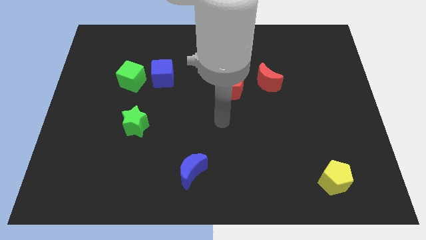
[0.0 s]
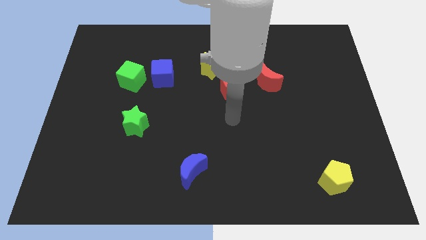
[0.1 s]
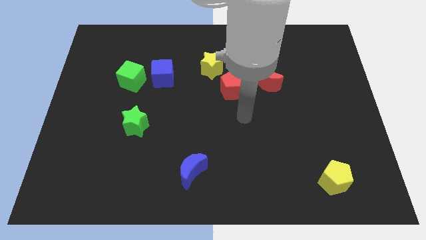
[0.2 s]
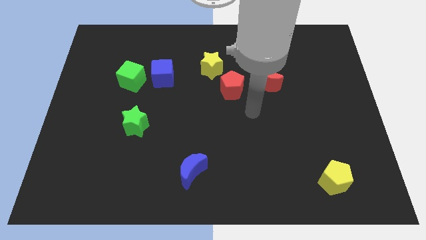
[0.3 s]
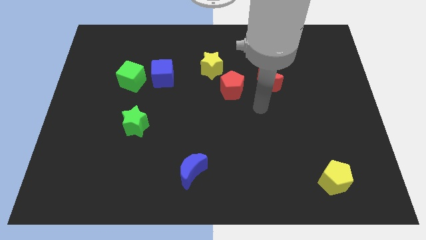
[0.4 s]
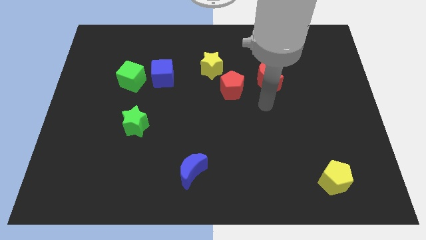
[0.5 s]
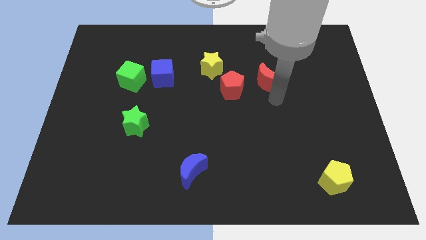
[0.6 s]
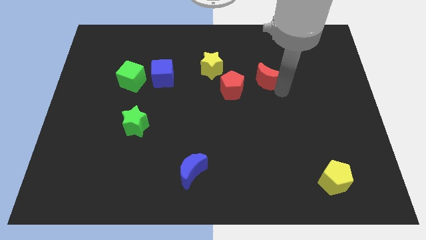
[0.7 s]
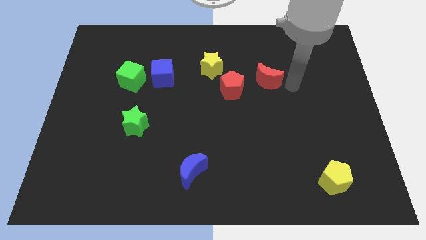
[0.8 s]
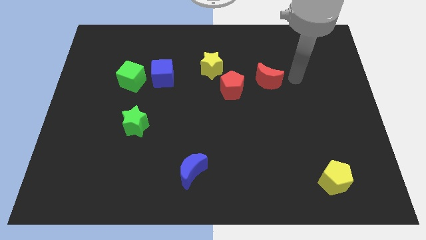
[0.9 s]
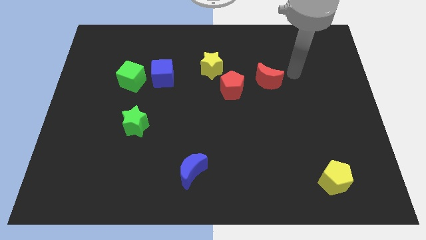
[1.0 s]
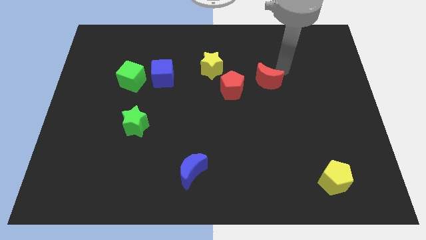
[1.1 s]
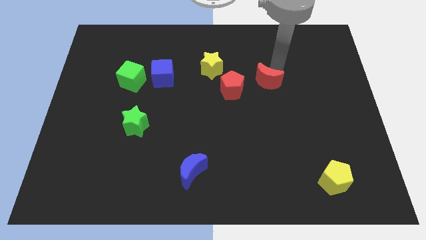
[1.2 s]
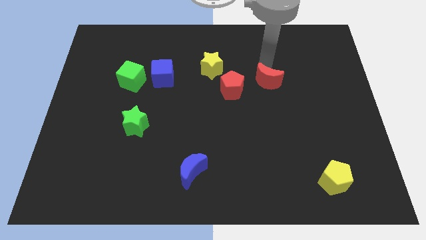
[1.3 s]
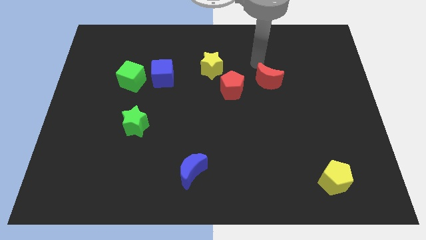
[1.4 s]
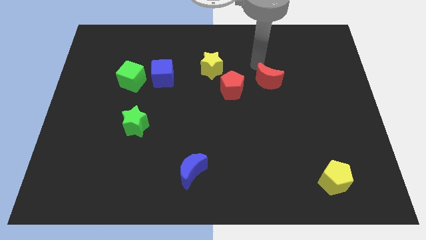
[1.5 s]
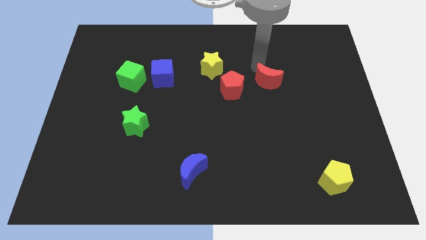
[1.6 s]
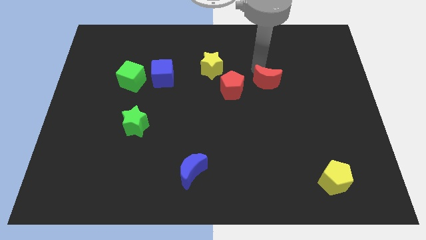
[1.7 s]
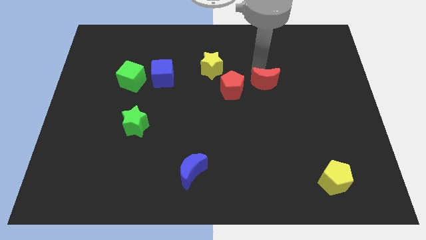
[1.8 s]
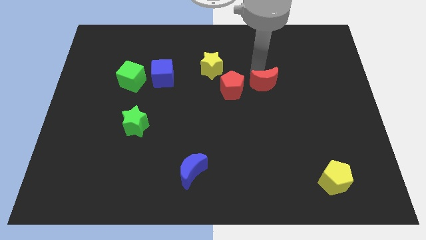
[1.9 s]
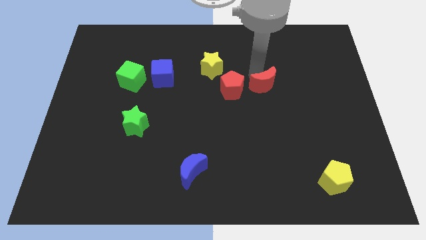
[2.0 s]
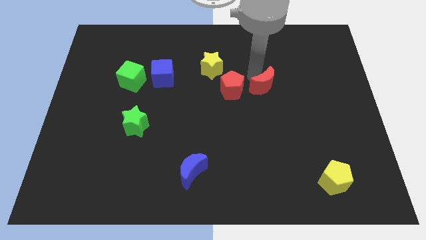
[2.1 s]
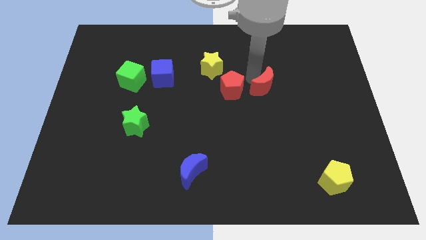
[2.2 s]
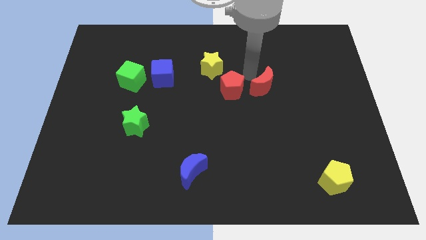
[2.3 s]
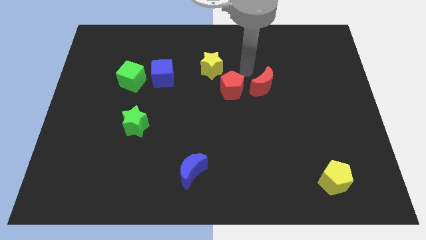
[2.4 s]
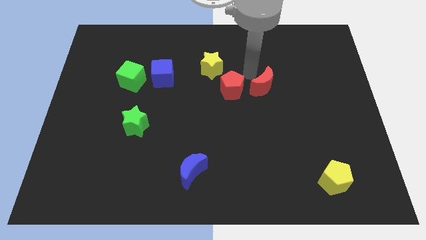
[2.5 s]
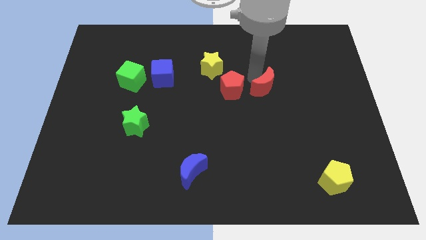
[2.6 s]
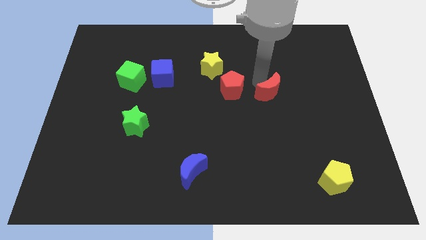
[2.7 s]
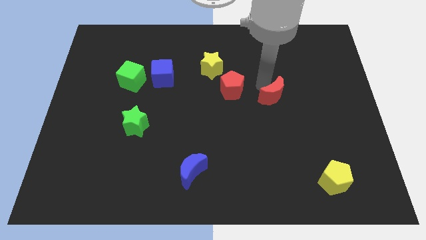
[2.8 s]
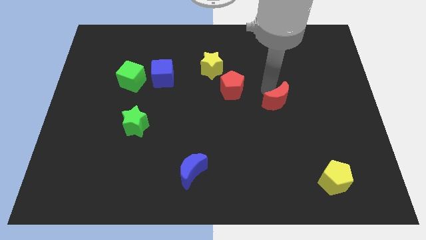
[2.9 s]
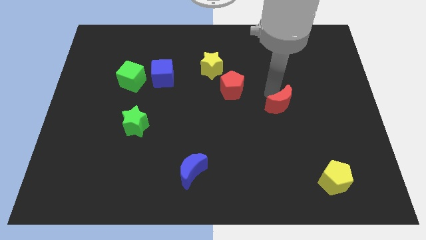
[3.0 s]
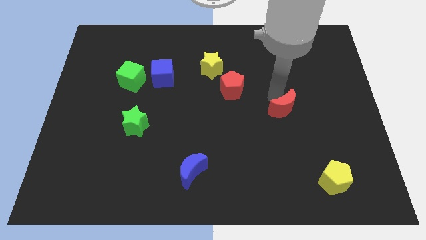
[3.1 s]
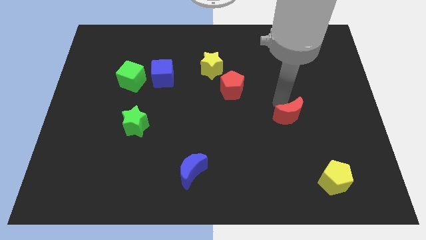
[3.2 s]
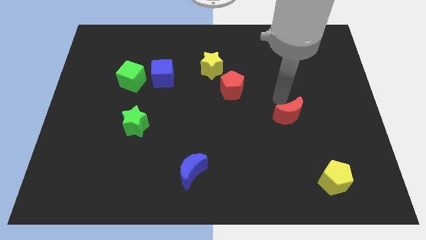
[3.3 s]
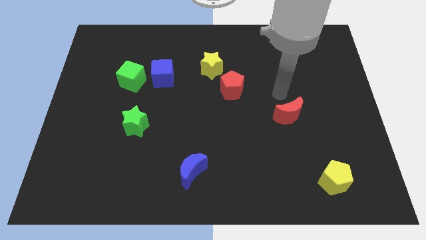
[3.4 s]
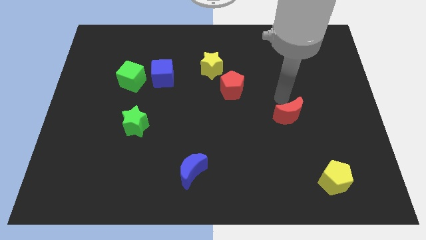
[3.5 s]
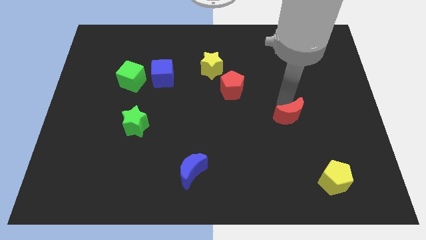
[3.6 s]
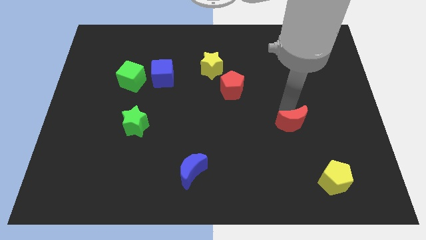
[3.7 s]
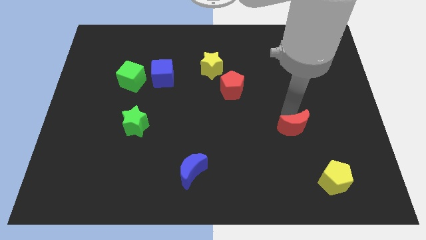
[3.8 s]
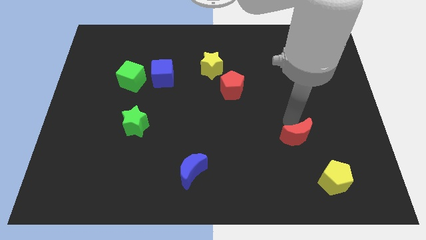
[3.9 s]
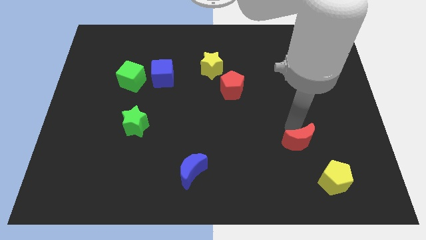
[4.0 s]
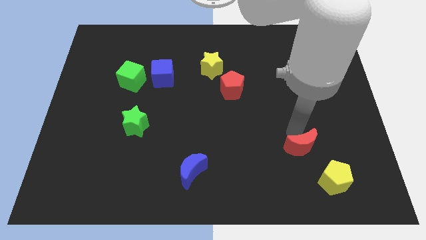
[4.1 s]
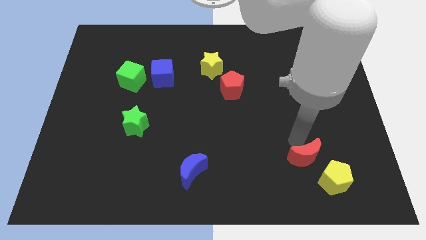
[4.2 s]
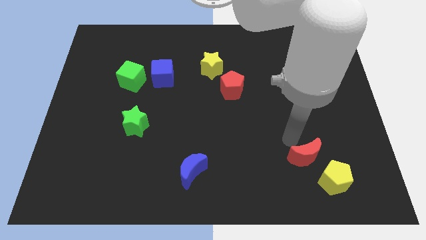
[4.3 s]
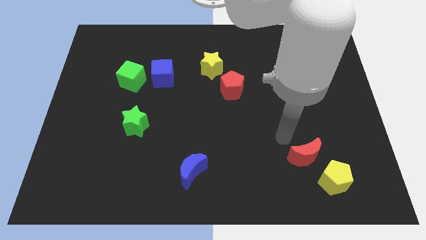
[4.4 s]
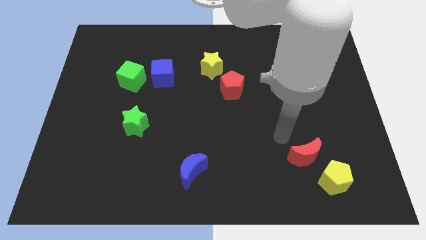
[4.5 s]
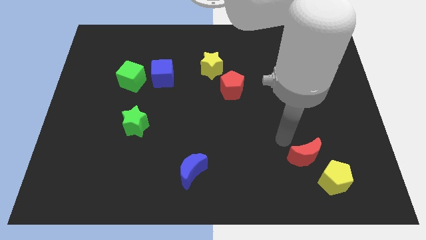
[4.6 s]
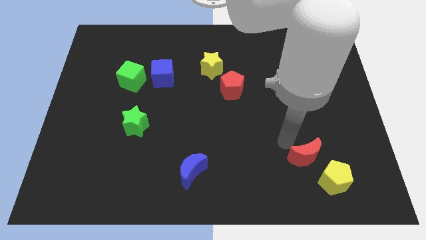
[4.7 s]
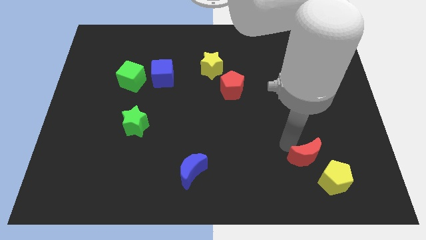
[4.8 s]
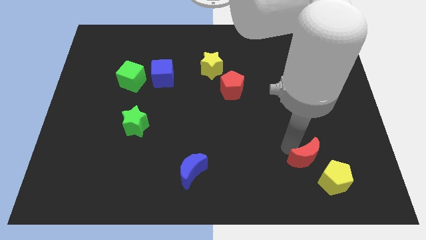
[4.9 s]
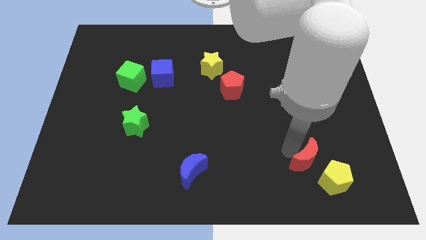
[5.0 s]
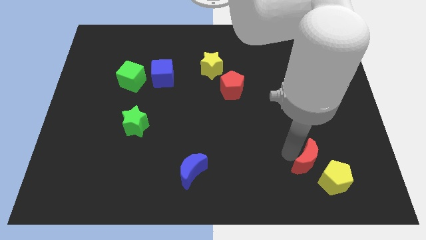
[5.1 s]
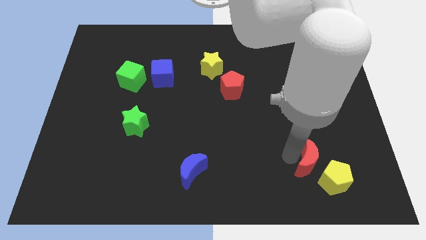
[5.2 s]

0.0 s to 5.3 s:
push the red moon towards the yellow pentagon

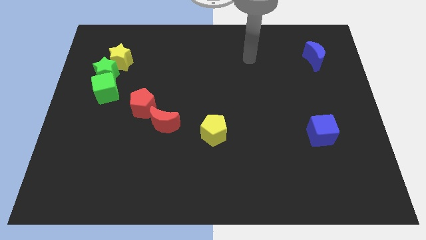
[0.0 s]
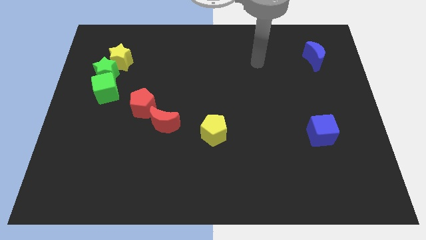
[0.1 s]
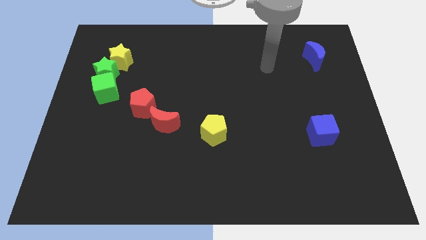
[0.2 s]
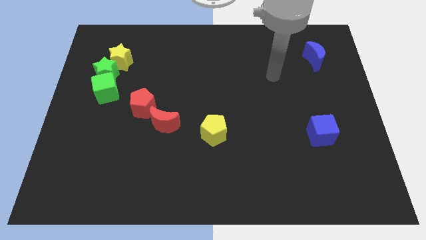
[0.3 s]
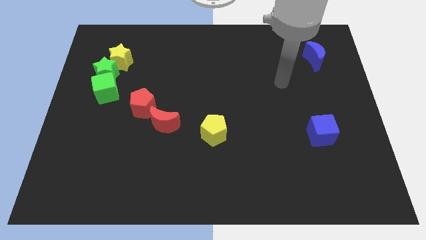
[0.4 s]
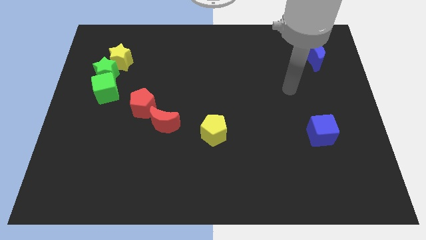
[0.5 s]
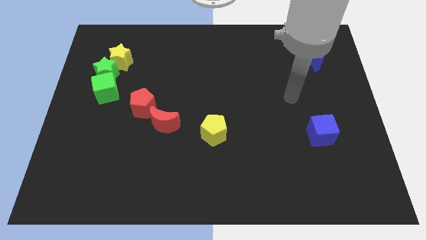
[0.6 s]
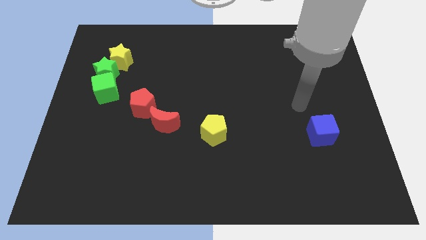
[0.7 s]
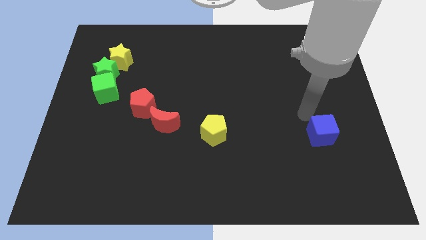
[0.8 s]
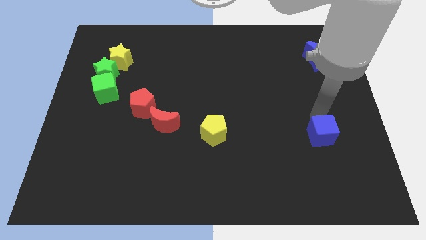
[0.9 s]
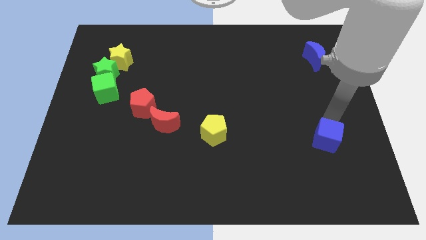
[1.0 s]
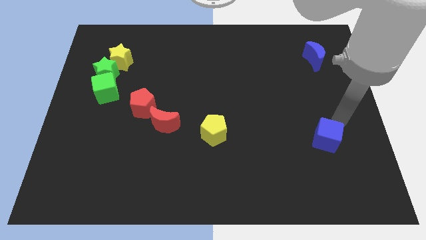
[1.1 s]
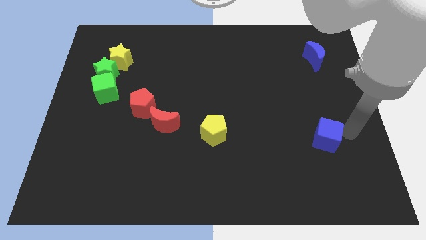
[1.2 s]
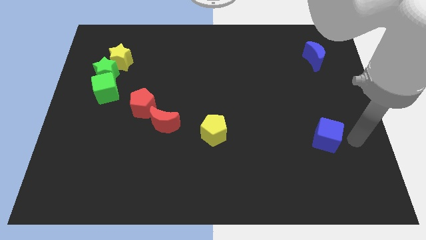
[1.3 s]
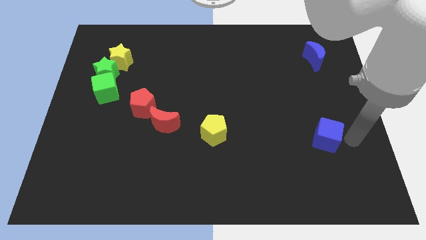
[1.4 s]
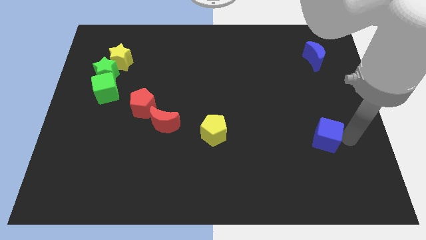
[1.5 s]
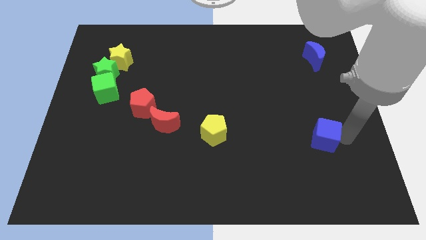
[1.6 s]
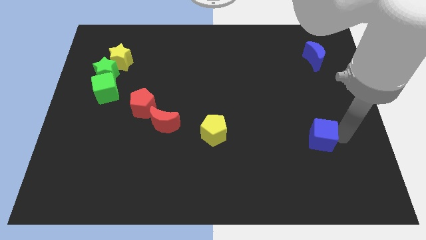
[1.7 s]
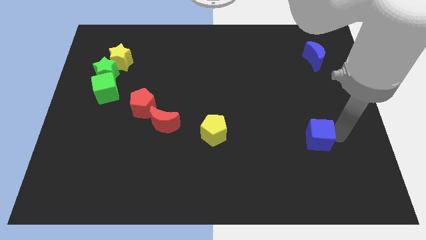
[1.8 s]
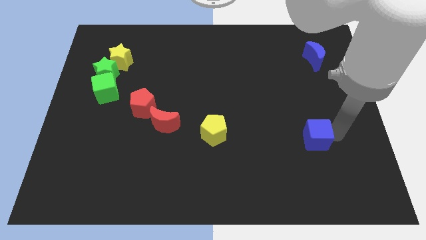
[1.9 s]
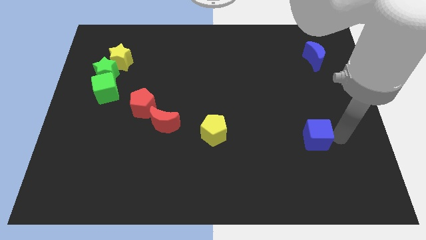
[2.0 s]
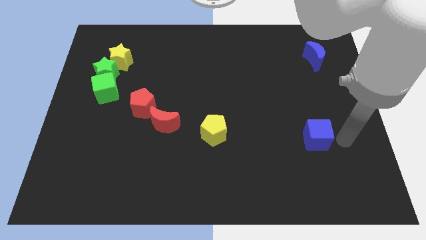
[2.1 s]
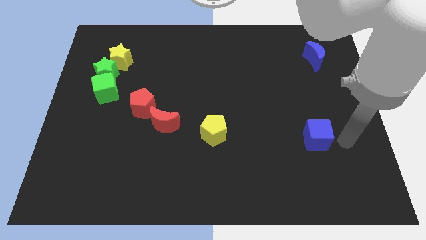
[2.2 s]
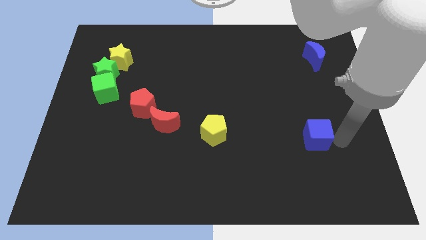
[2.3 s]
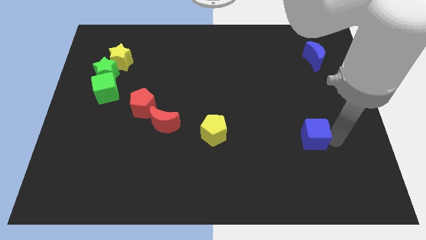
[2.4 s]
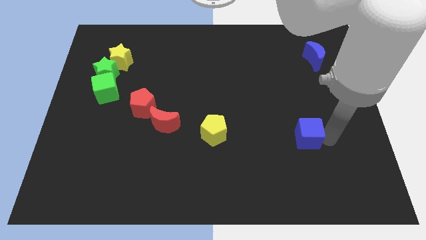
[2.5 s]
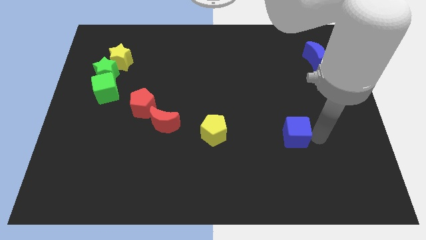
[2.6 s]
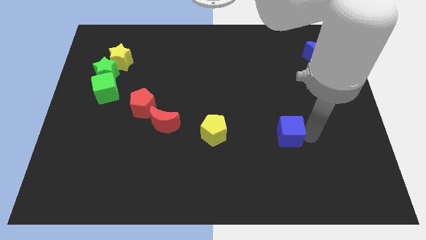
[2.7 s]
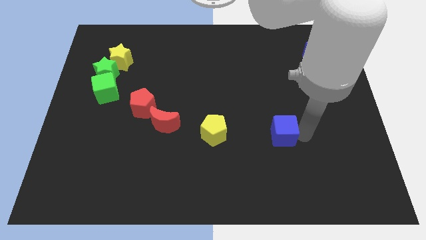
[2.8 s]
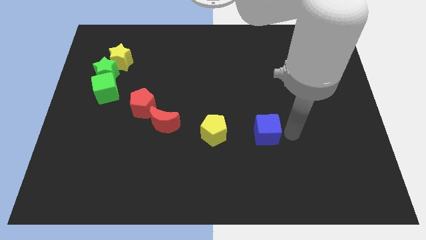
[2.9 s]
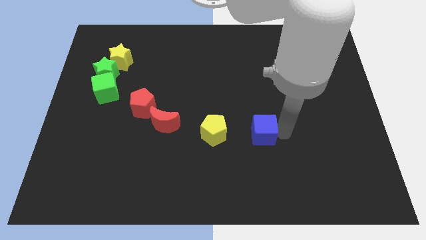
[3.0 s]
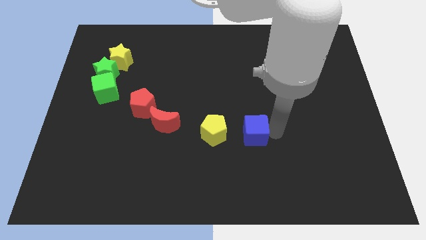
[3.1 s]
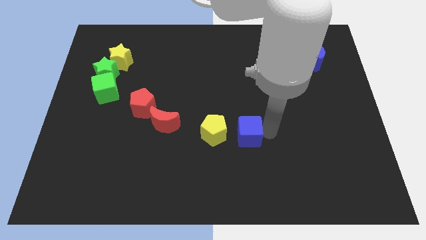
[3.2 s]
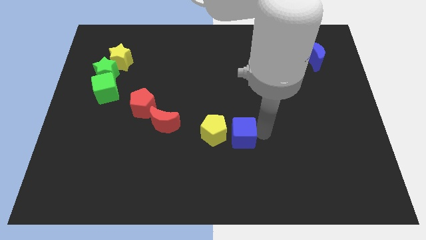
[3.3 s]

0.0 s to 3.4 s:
push the blue cube next to the yellow pentagon
